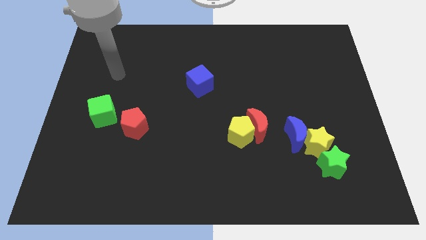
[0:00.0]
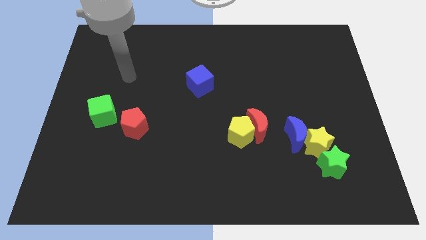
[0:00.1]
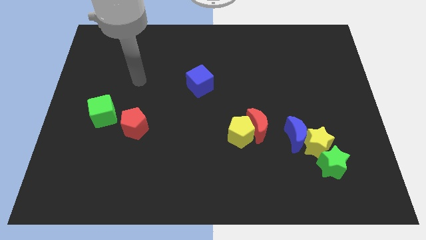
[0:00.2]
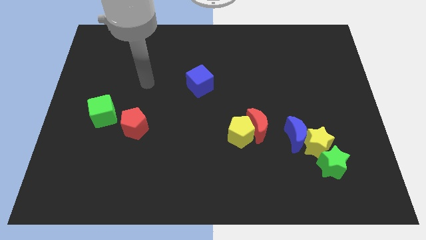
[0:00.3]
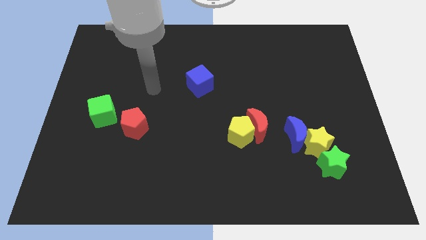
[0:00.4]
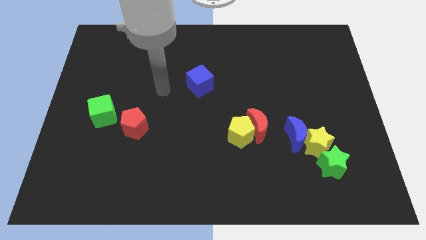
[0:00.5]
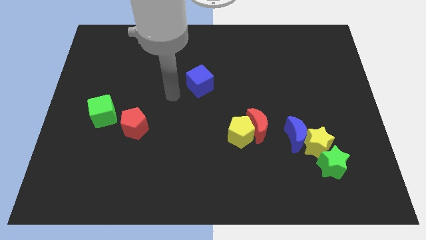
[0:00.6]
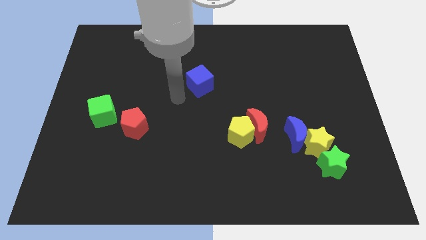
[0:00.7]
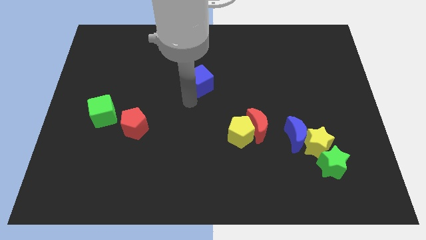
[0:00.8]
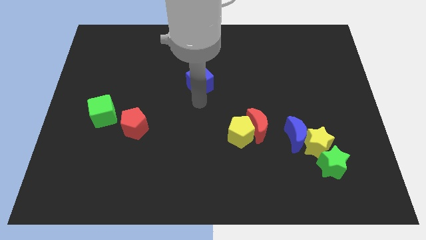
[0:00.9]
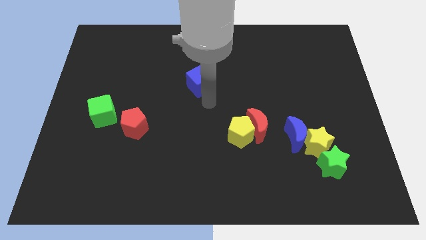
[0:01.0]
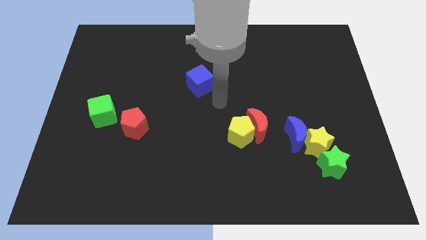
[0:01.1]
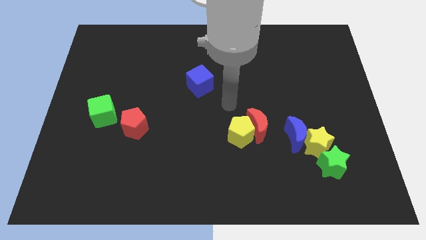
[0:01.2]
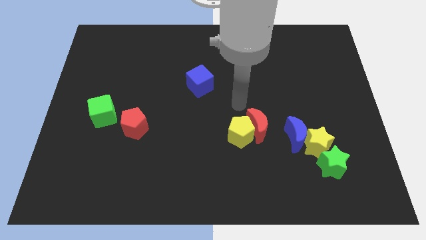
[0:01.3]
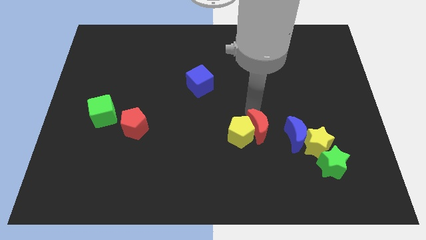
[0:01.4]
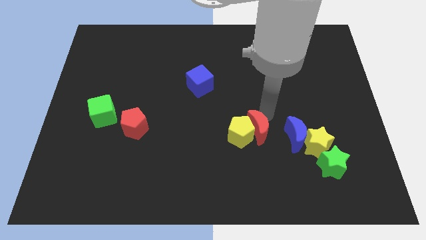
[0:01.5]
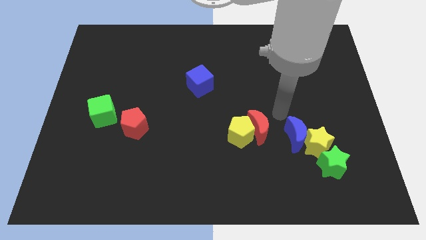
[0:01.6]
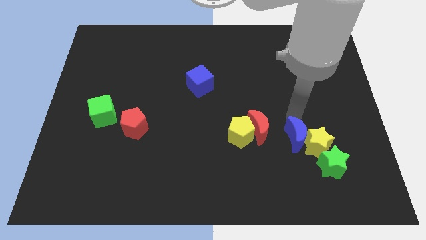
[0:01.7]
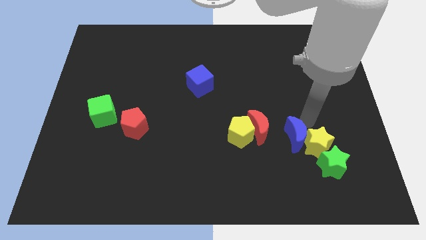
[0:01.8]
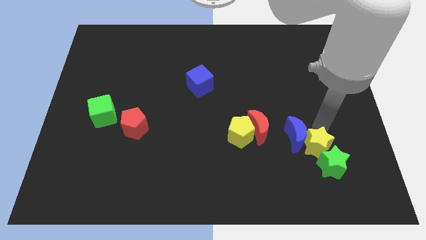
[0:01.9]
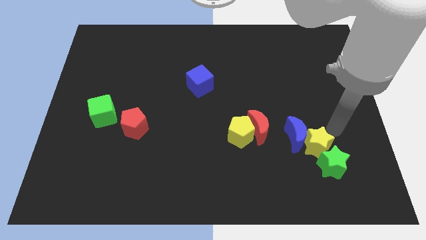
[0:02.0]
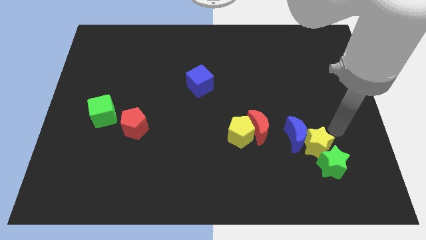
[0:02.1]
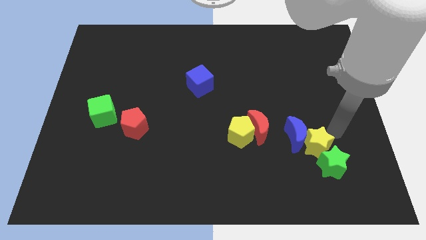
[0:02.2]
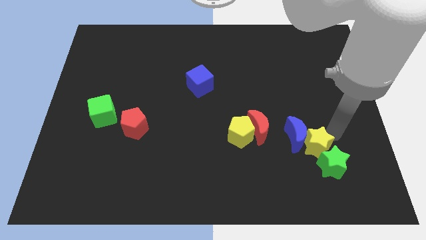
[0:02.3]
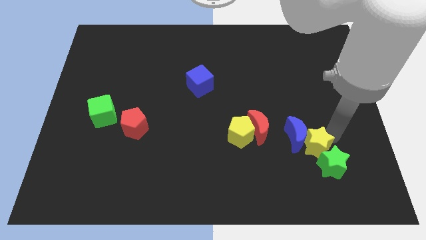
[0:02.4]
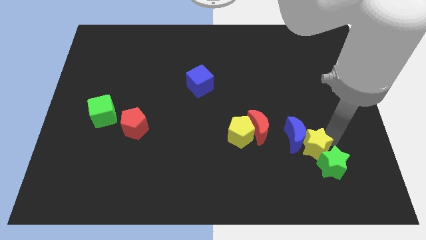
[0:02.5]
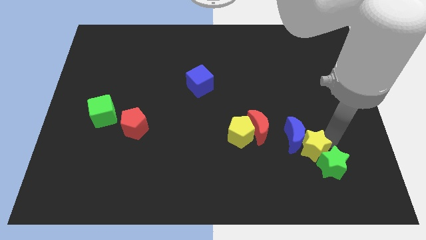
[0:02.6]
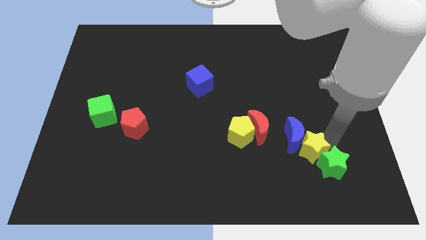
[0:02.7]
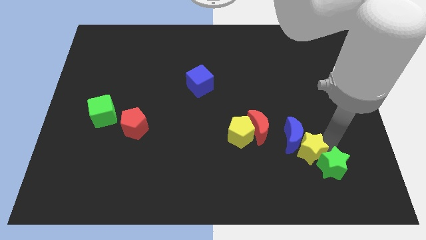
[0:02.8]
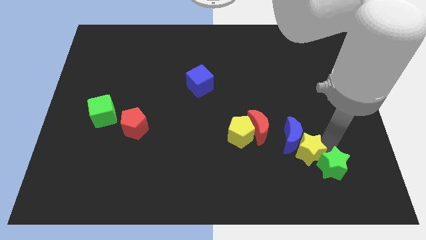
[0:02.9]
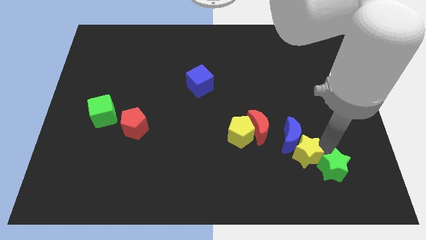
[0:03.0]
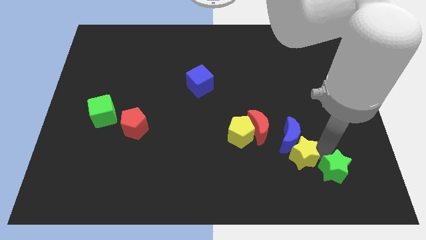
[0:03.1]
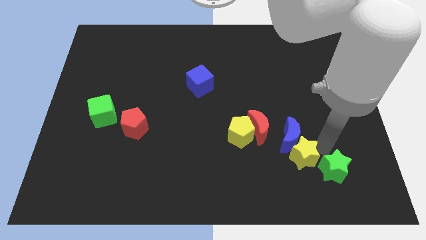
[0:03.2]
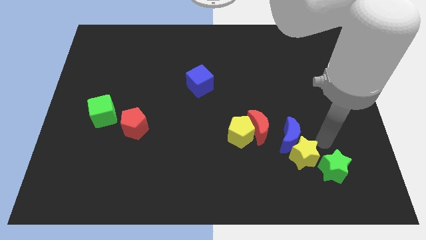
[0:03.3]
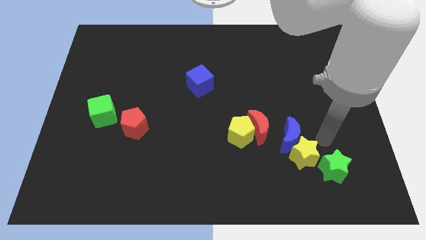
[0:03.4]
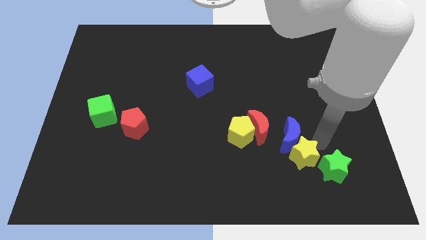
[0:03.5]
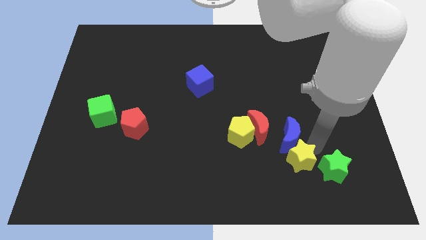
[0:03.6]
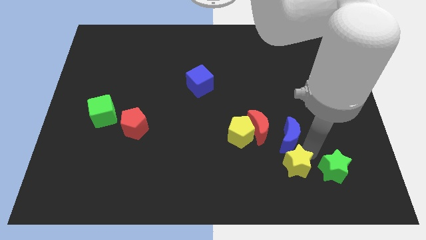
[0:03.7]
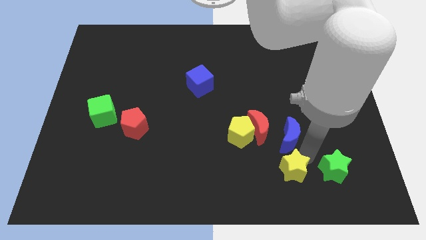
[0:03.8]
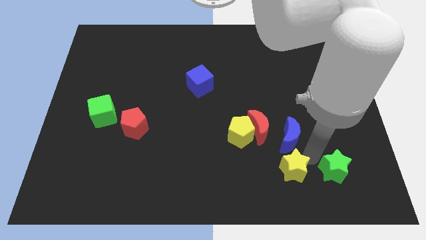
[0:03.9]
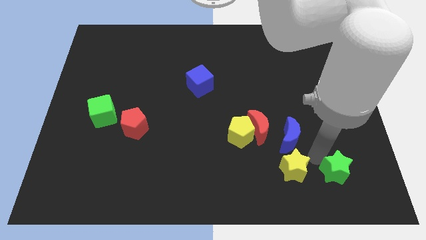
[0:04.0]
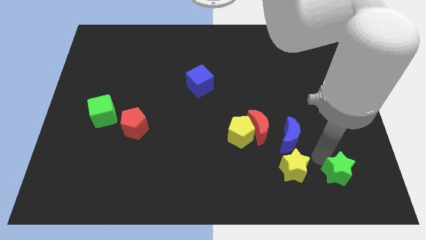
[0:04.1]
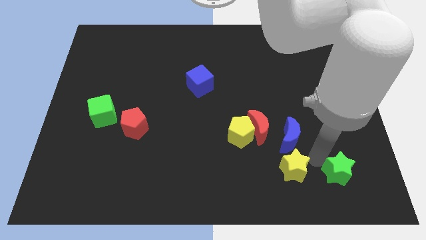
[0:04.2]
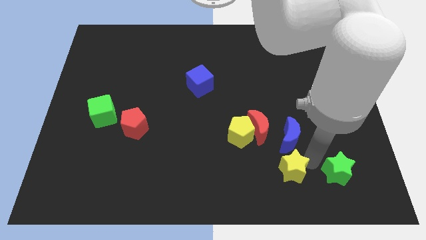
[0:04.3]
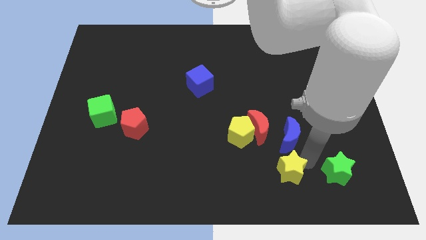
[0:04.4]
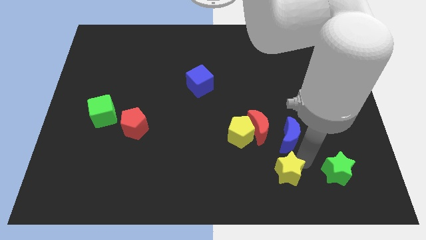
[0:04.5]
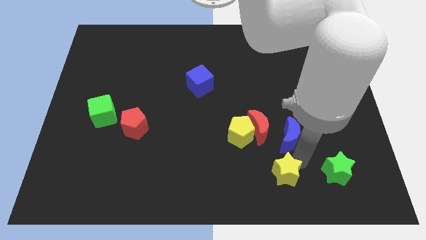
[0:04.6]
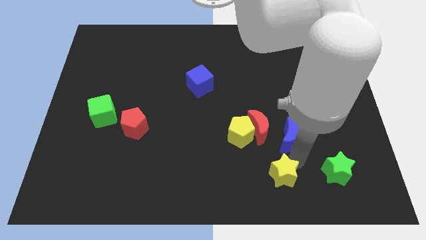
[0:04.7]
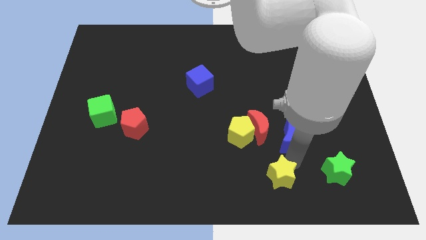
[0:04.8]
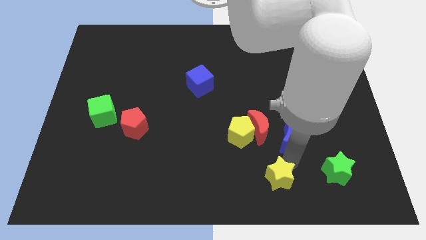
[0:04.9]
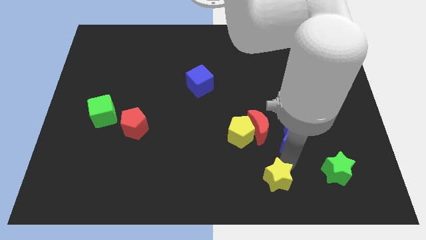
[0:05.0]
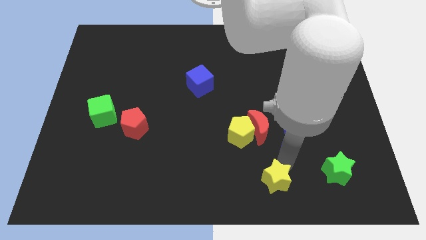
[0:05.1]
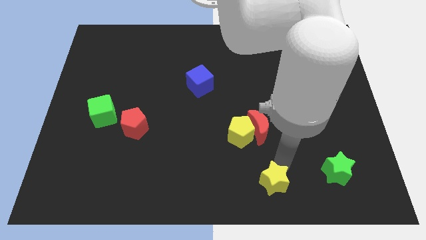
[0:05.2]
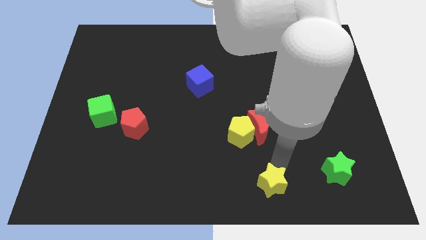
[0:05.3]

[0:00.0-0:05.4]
move the yellow star to the bottom side

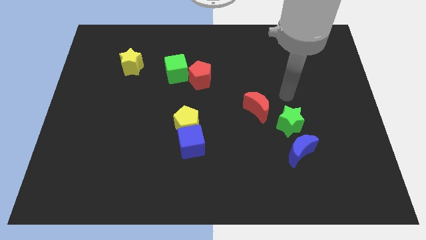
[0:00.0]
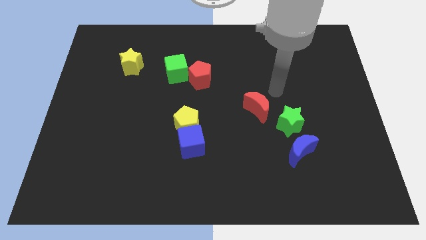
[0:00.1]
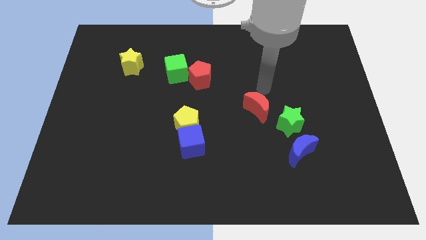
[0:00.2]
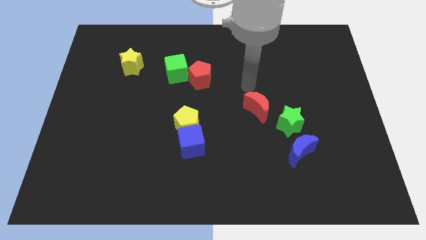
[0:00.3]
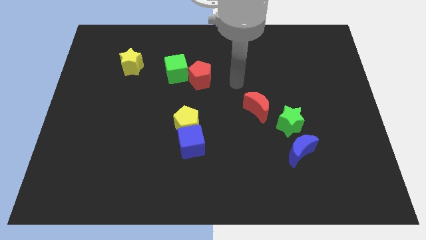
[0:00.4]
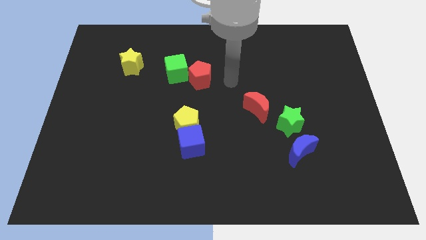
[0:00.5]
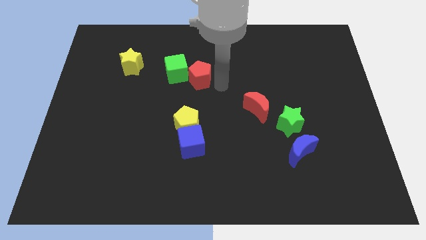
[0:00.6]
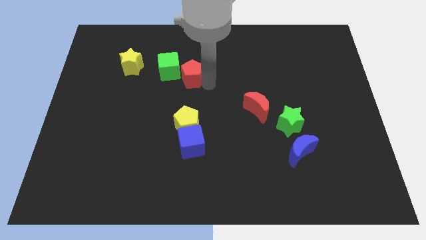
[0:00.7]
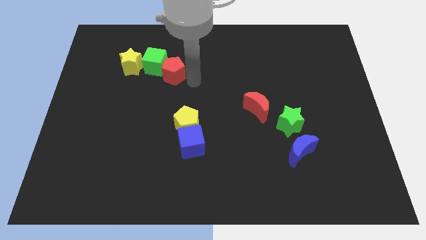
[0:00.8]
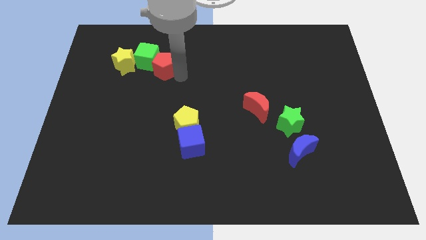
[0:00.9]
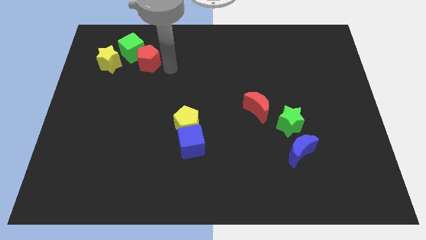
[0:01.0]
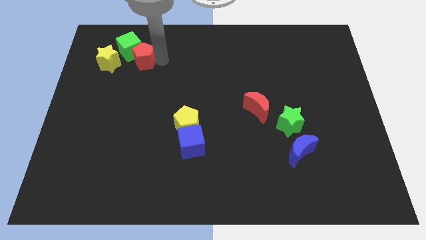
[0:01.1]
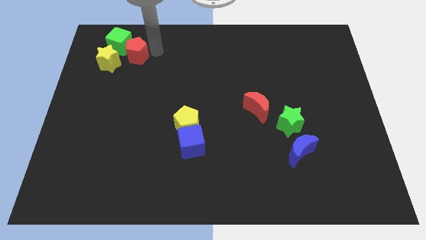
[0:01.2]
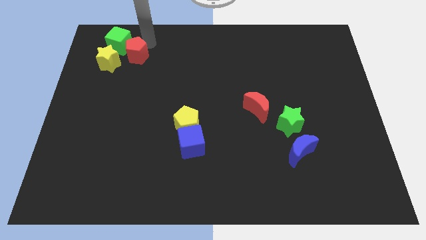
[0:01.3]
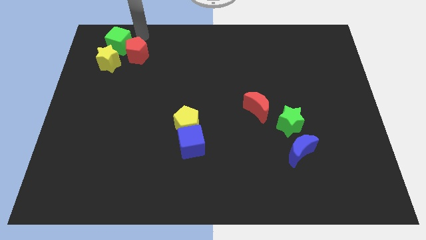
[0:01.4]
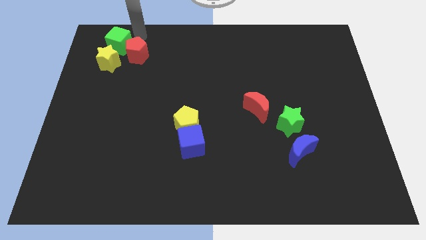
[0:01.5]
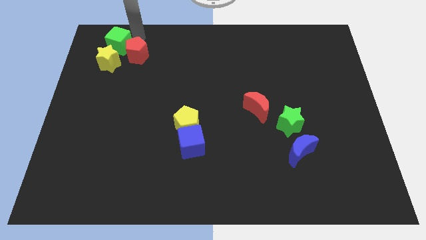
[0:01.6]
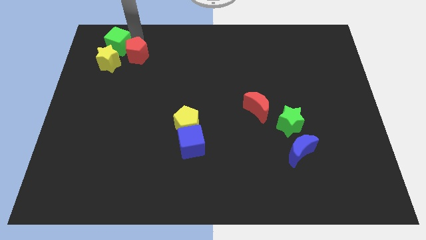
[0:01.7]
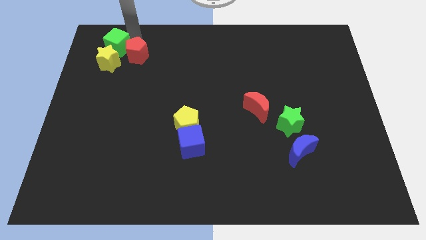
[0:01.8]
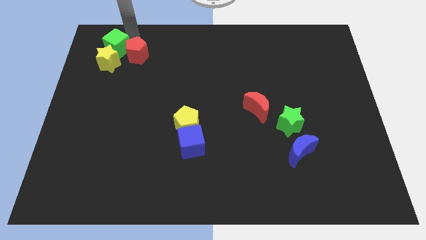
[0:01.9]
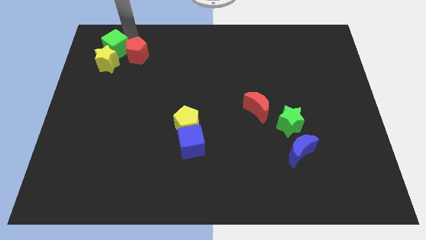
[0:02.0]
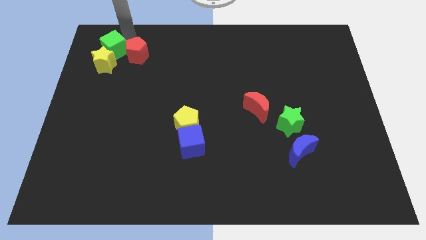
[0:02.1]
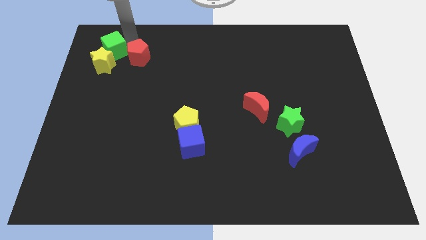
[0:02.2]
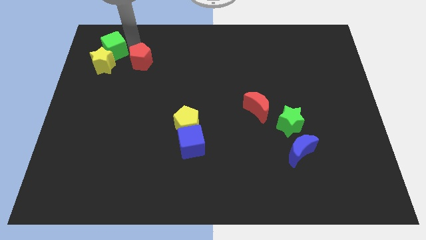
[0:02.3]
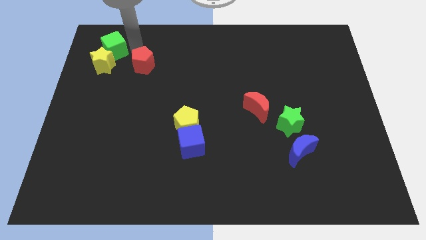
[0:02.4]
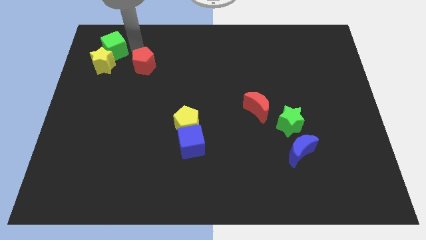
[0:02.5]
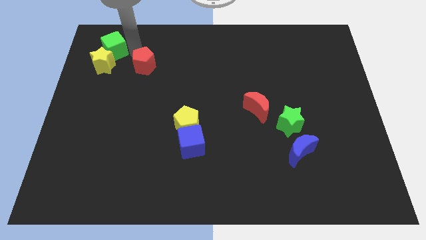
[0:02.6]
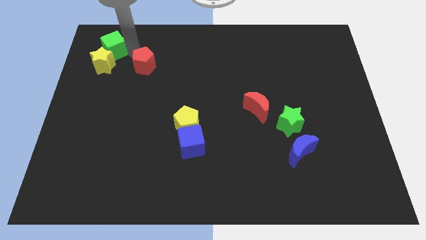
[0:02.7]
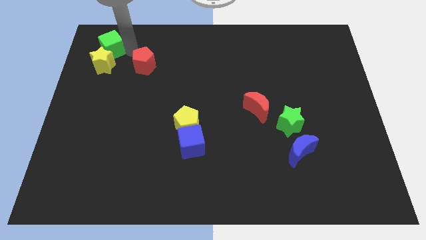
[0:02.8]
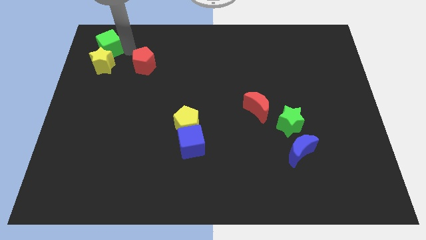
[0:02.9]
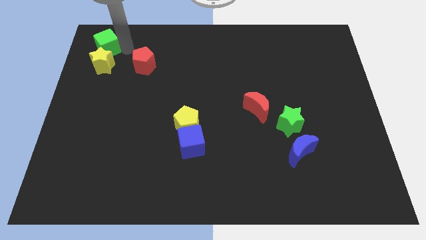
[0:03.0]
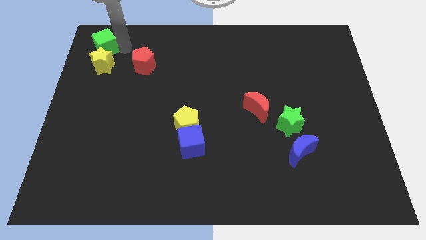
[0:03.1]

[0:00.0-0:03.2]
push the green cube to the top left corner
